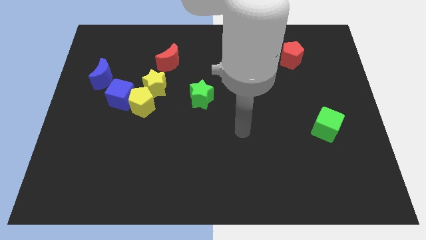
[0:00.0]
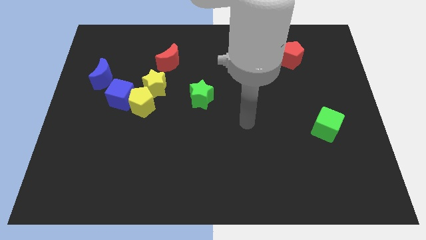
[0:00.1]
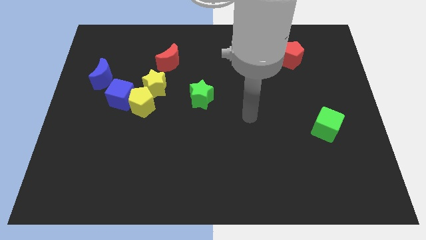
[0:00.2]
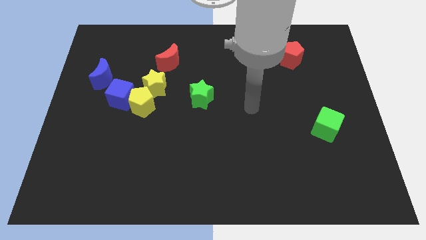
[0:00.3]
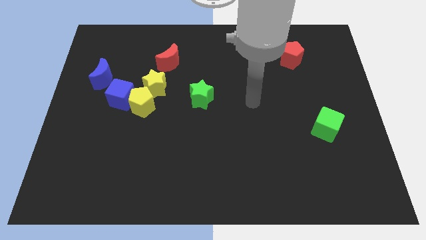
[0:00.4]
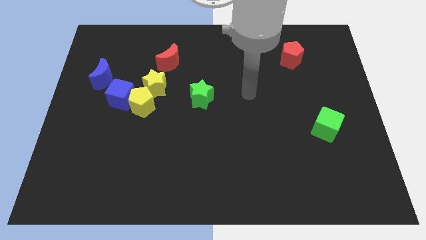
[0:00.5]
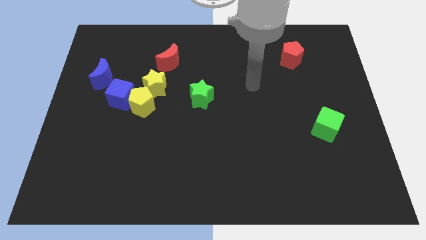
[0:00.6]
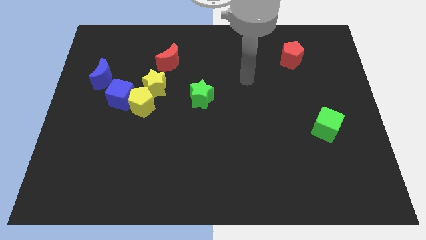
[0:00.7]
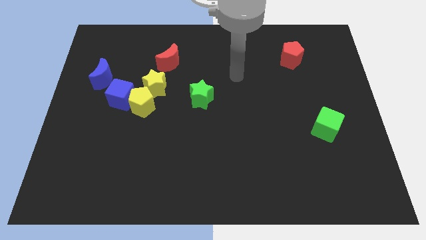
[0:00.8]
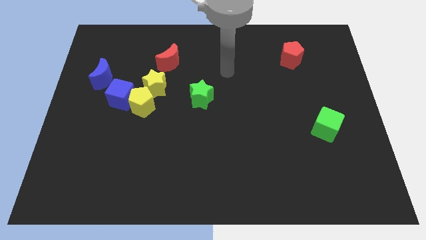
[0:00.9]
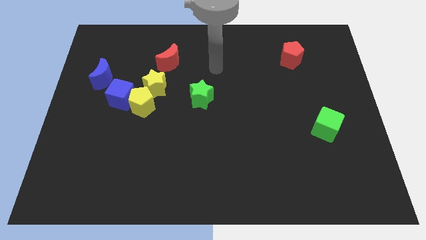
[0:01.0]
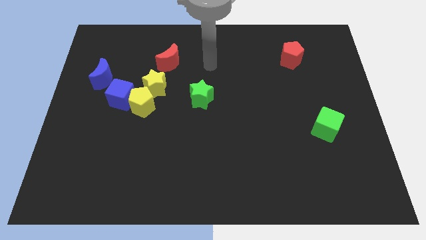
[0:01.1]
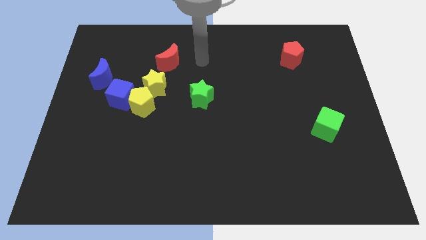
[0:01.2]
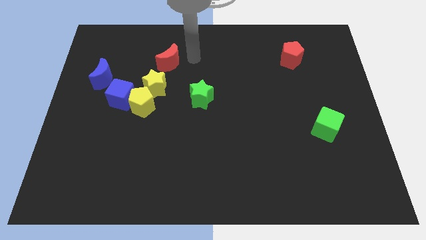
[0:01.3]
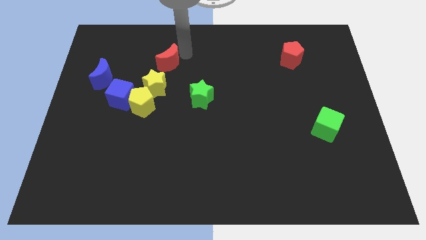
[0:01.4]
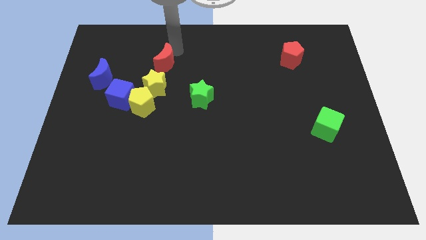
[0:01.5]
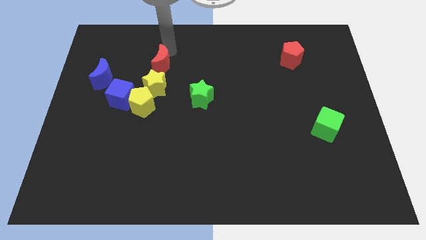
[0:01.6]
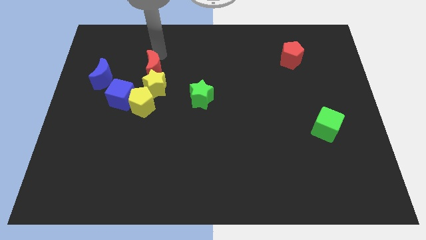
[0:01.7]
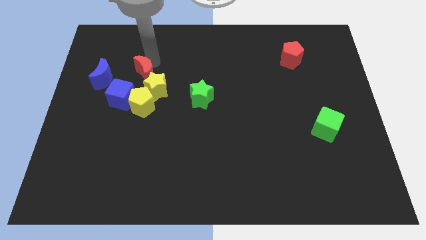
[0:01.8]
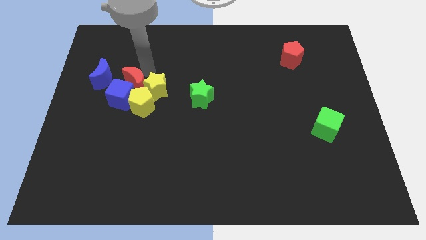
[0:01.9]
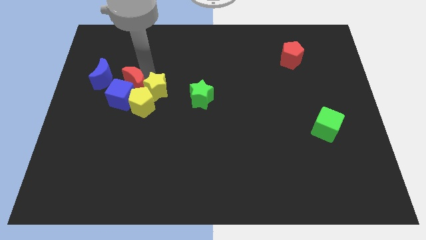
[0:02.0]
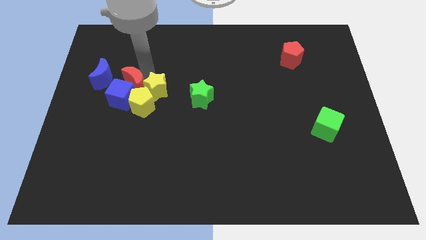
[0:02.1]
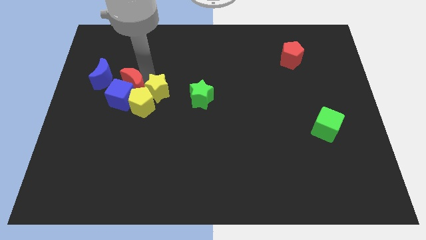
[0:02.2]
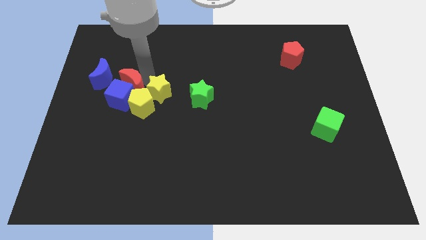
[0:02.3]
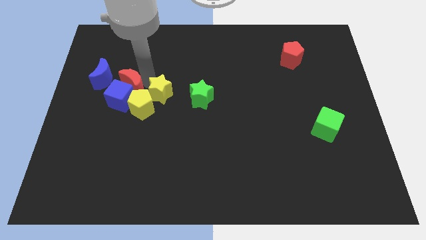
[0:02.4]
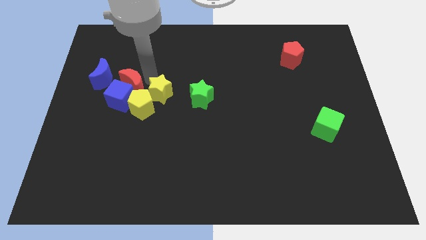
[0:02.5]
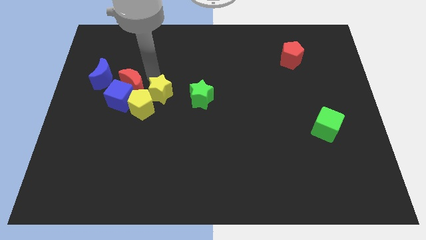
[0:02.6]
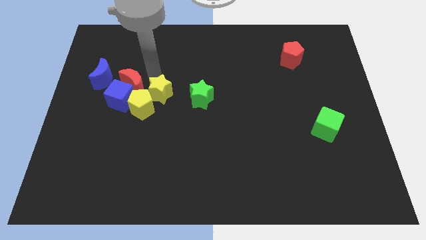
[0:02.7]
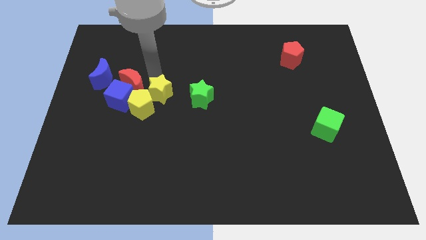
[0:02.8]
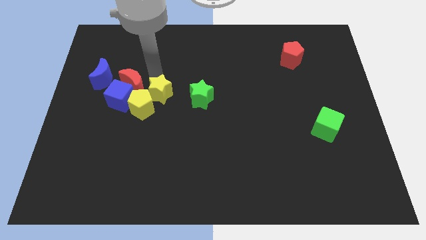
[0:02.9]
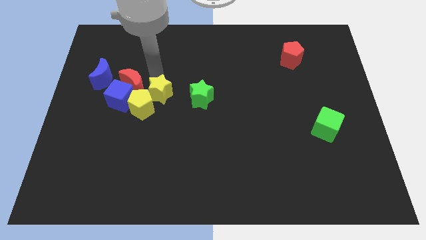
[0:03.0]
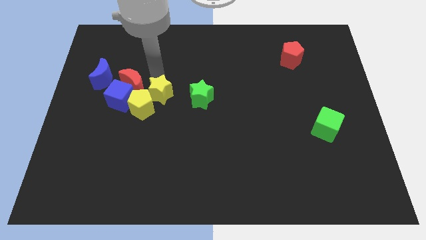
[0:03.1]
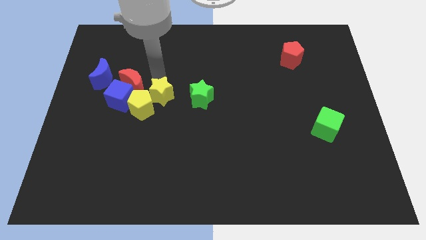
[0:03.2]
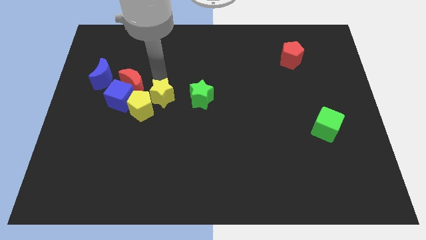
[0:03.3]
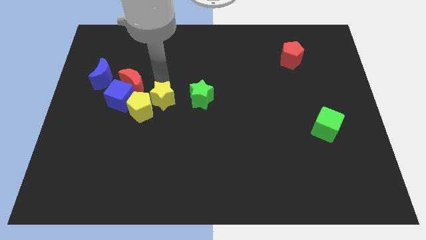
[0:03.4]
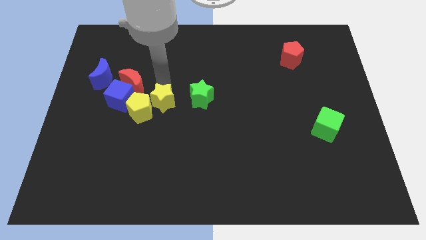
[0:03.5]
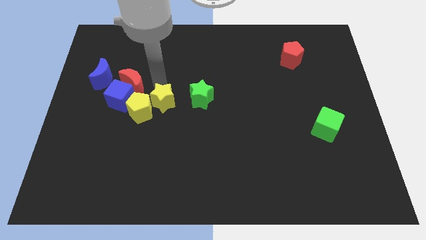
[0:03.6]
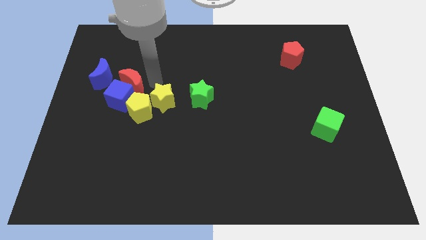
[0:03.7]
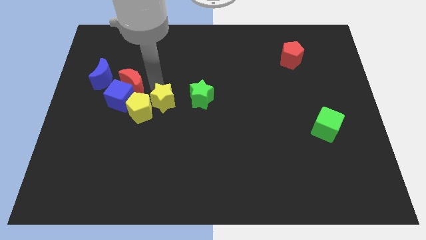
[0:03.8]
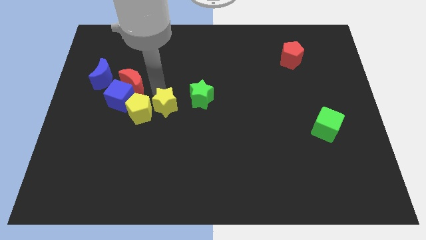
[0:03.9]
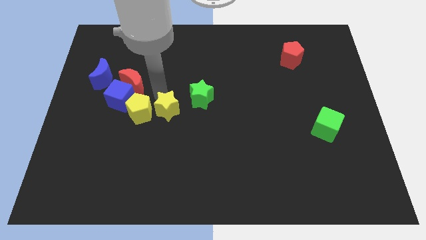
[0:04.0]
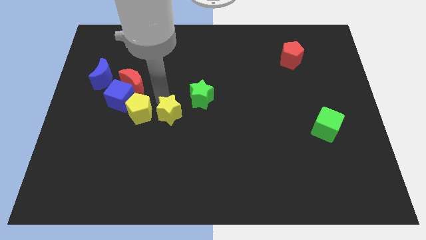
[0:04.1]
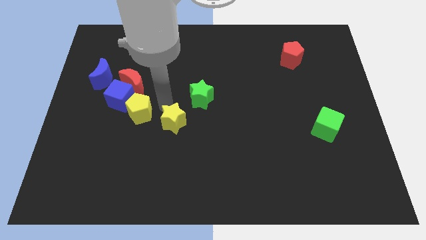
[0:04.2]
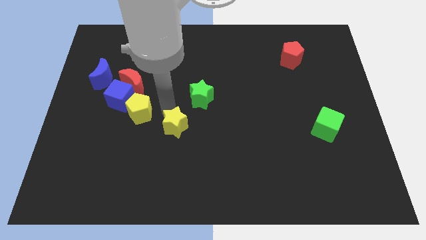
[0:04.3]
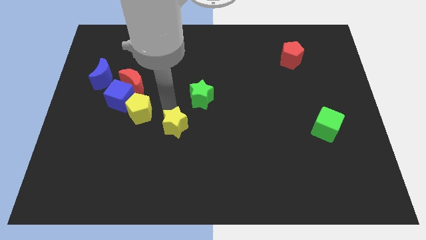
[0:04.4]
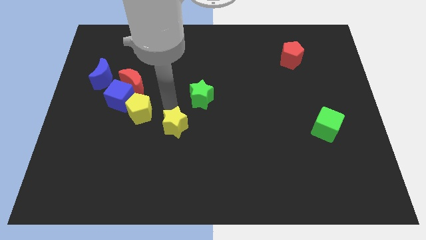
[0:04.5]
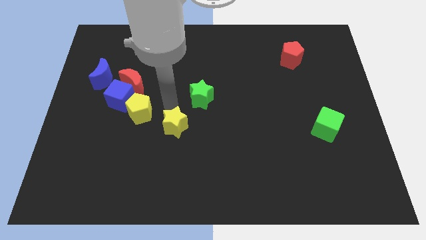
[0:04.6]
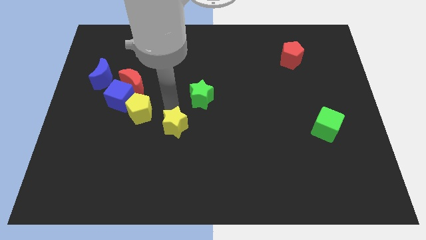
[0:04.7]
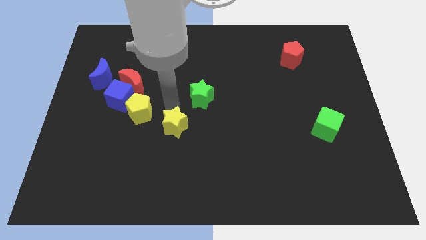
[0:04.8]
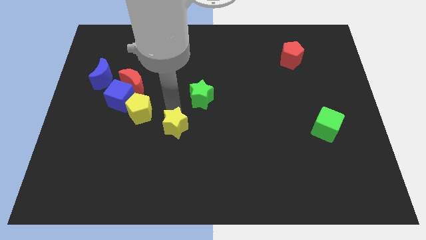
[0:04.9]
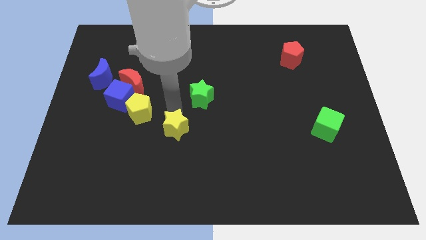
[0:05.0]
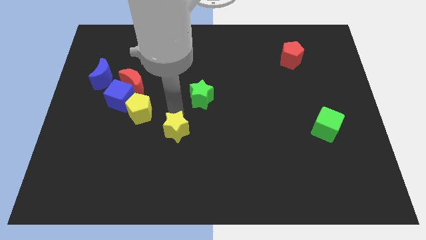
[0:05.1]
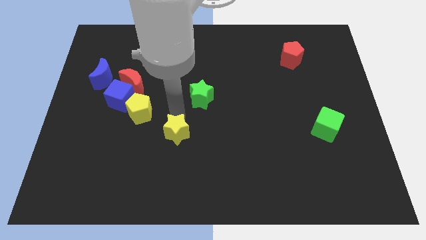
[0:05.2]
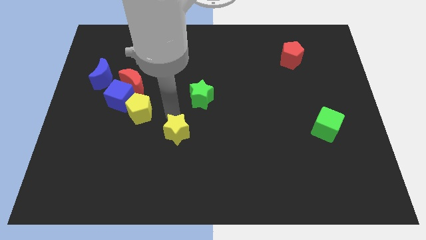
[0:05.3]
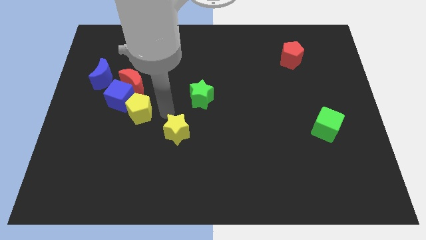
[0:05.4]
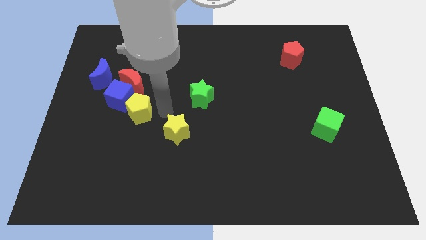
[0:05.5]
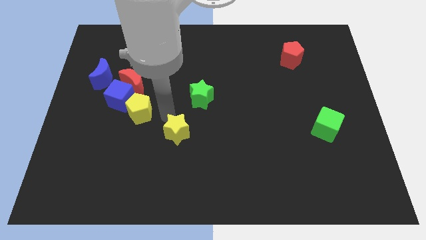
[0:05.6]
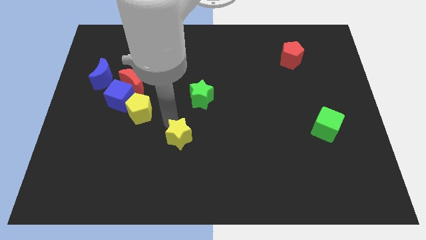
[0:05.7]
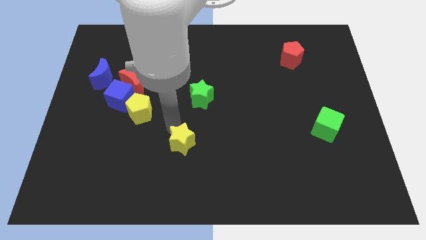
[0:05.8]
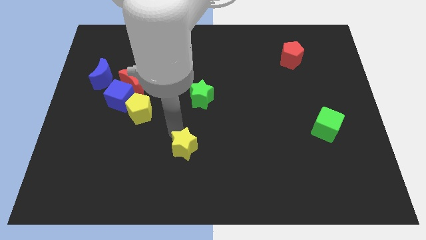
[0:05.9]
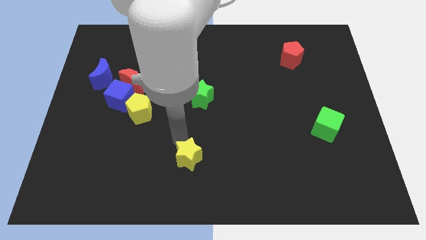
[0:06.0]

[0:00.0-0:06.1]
push the yellow star to the bottom side
